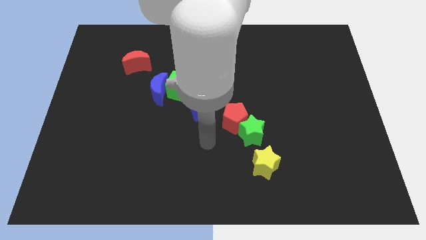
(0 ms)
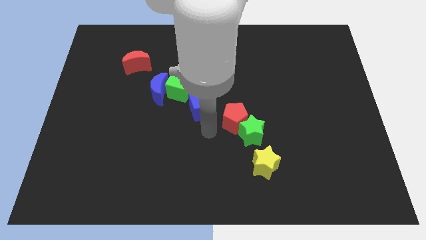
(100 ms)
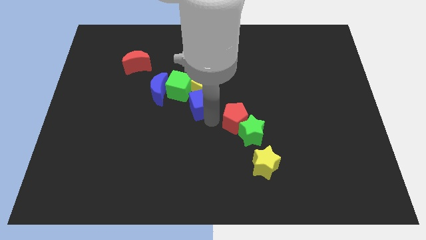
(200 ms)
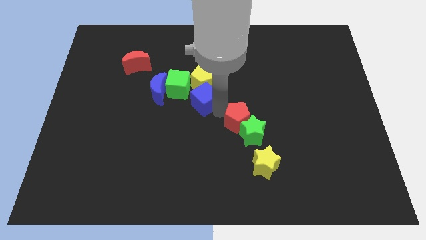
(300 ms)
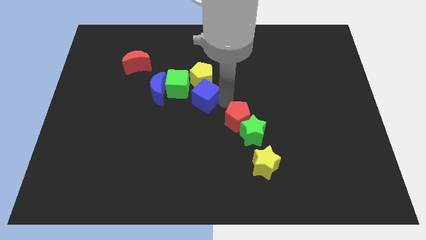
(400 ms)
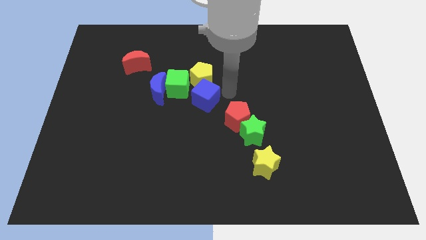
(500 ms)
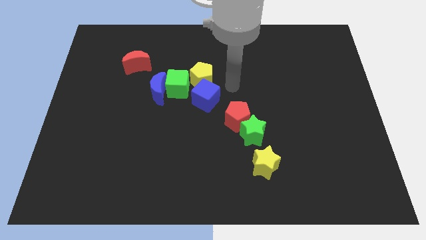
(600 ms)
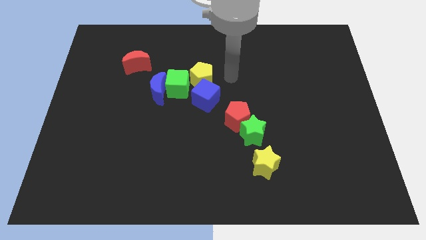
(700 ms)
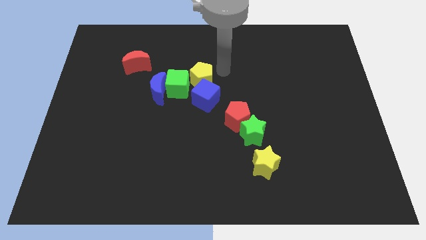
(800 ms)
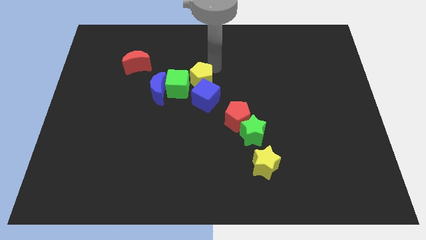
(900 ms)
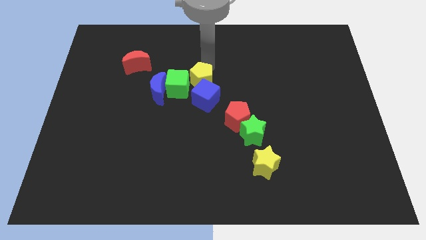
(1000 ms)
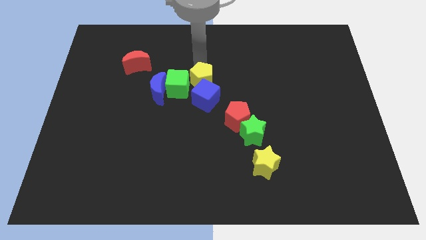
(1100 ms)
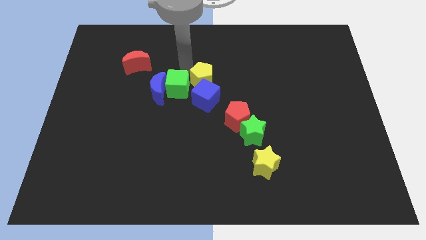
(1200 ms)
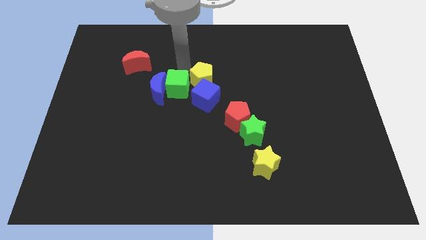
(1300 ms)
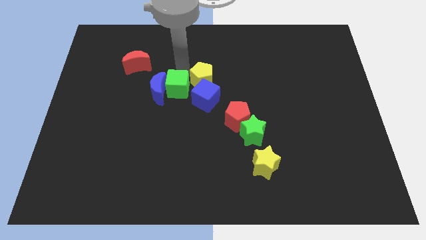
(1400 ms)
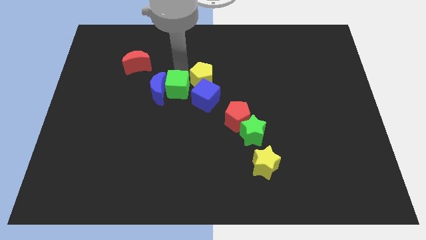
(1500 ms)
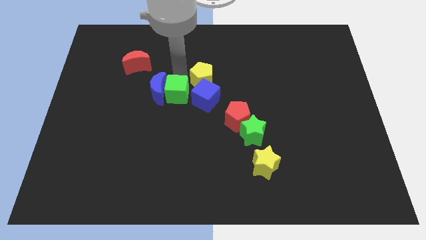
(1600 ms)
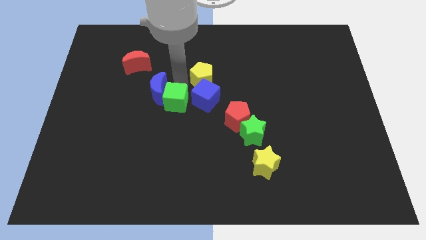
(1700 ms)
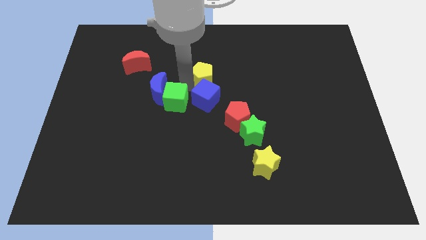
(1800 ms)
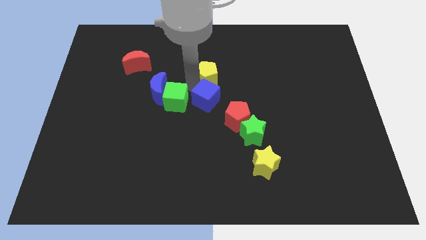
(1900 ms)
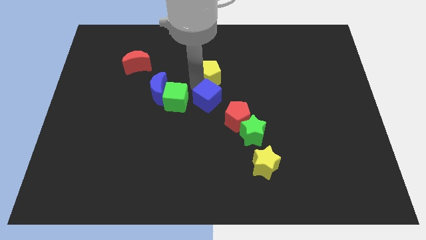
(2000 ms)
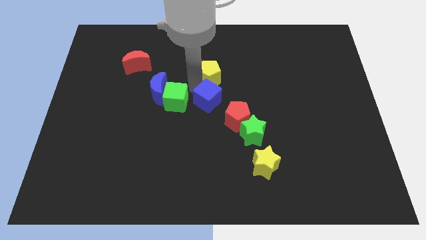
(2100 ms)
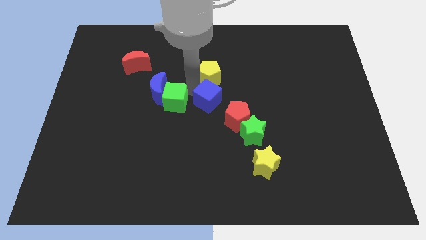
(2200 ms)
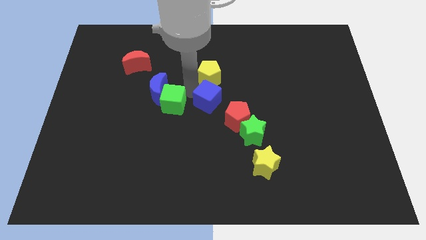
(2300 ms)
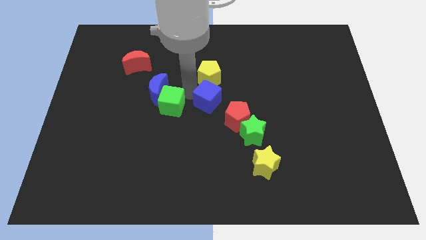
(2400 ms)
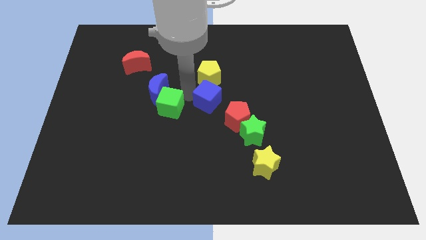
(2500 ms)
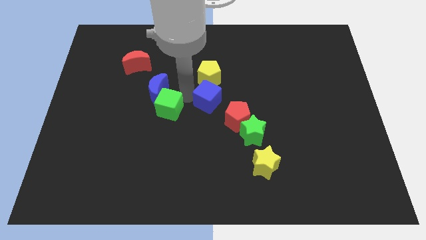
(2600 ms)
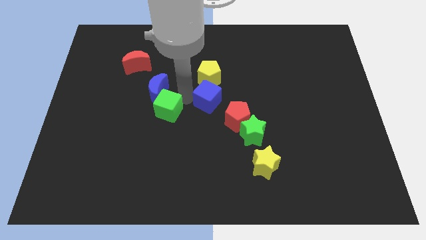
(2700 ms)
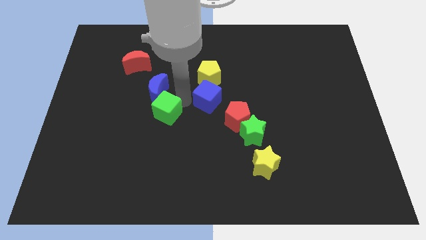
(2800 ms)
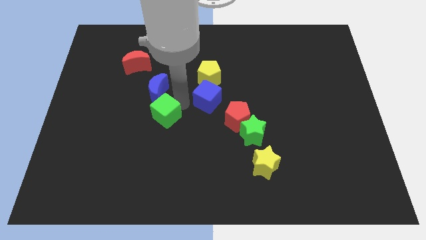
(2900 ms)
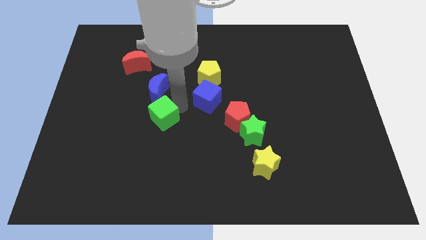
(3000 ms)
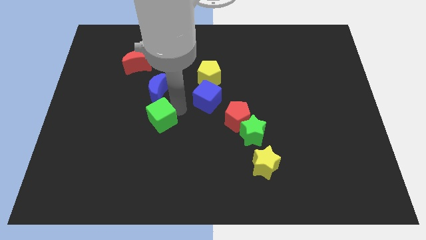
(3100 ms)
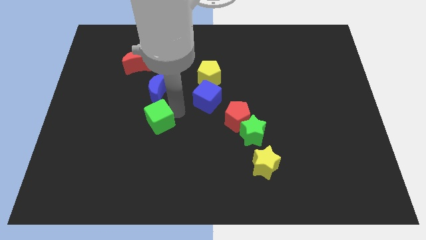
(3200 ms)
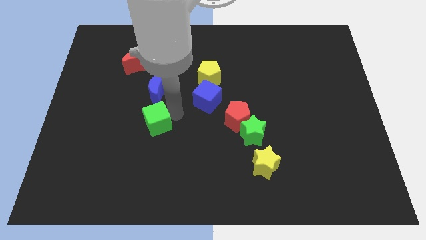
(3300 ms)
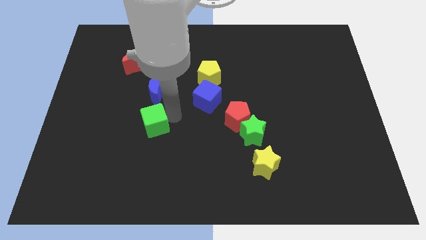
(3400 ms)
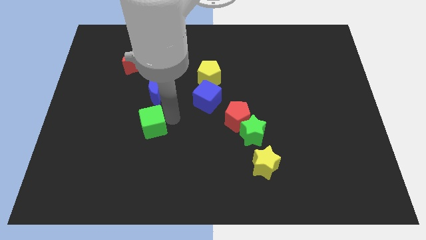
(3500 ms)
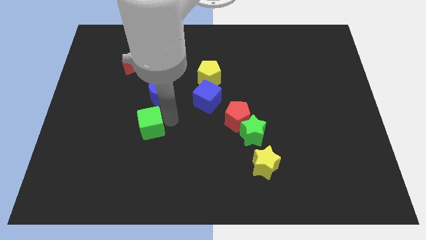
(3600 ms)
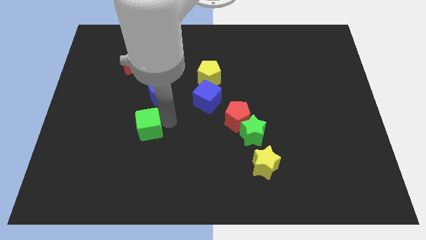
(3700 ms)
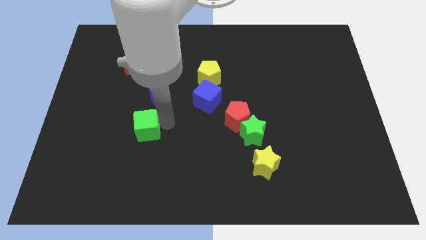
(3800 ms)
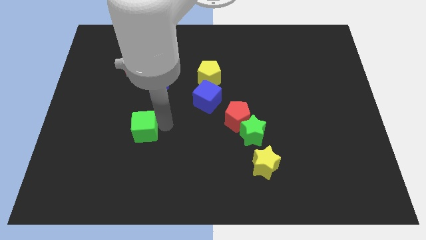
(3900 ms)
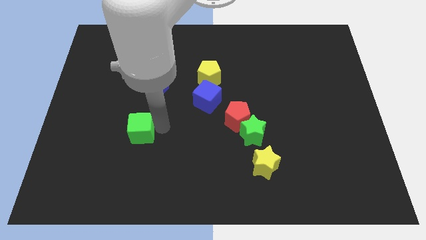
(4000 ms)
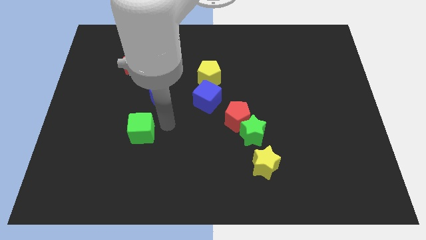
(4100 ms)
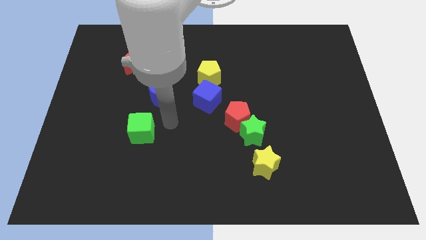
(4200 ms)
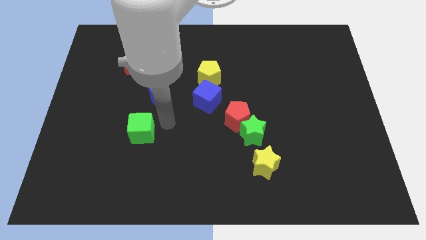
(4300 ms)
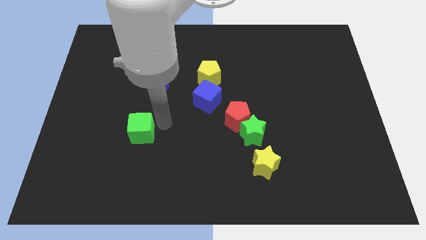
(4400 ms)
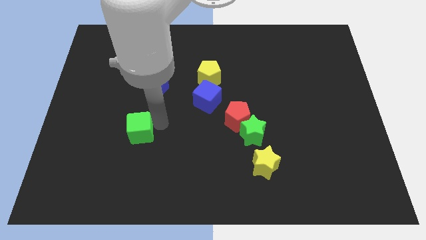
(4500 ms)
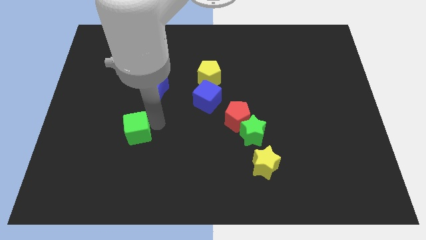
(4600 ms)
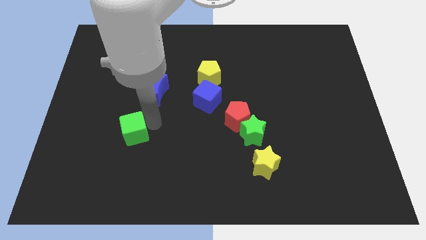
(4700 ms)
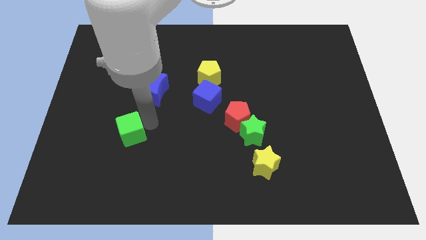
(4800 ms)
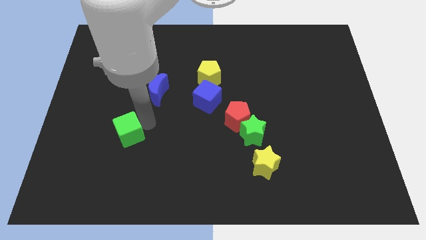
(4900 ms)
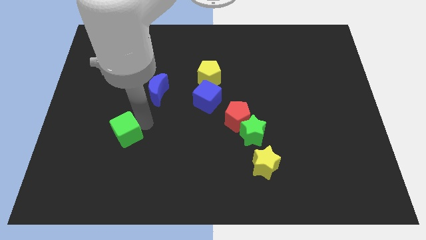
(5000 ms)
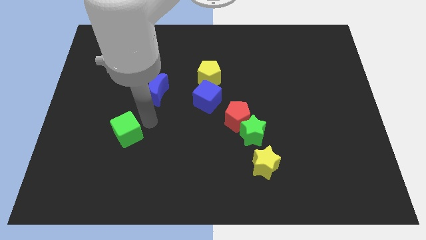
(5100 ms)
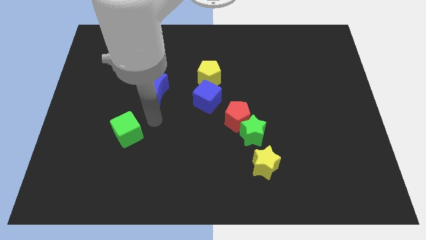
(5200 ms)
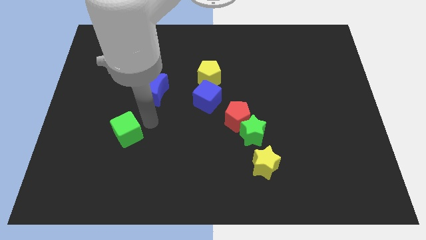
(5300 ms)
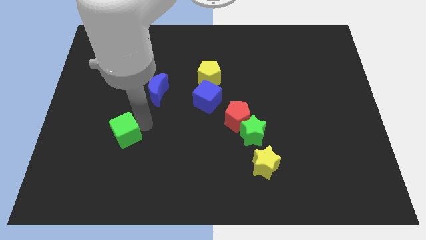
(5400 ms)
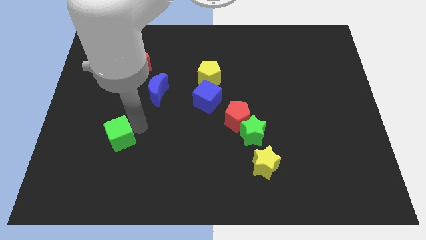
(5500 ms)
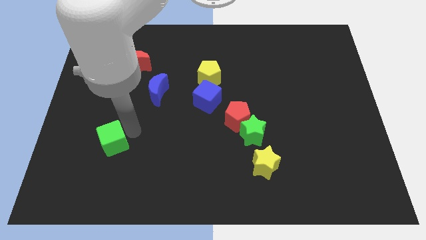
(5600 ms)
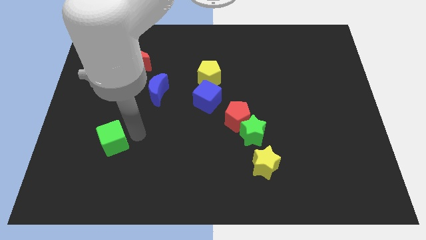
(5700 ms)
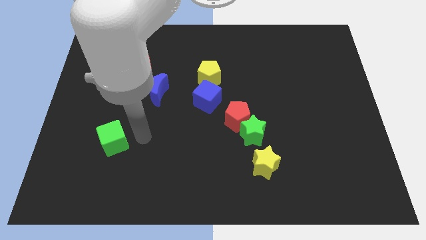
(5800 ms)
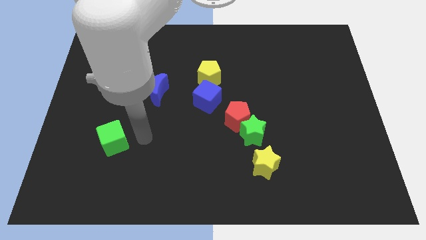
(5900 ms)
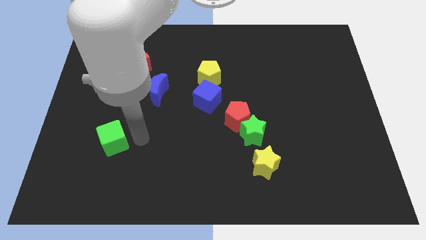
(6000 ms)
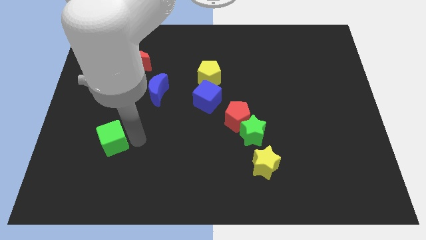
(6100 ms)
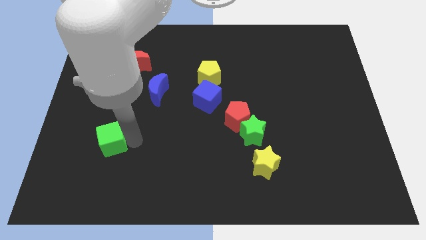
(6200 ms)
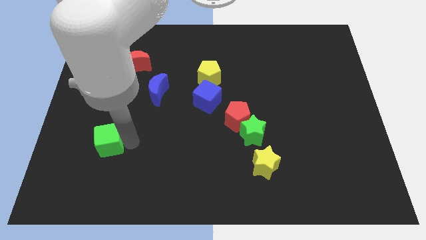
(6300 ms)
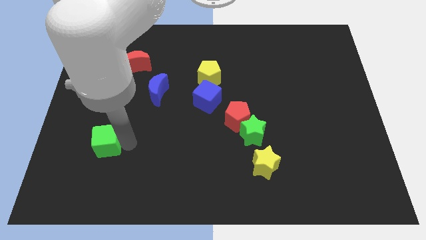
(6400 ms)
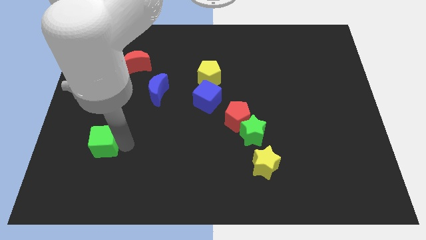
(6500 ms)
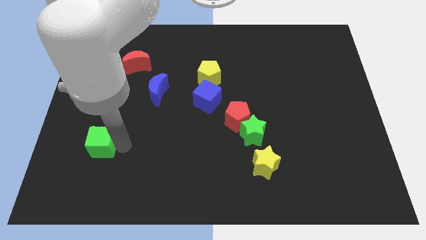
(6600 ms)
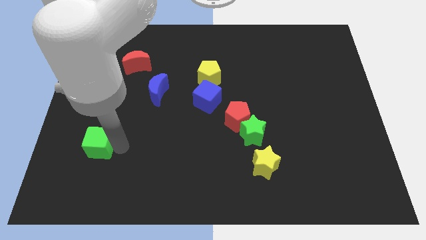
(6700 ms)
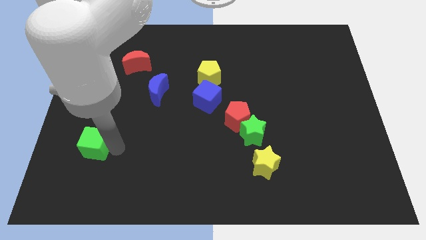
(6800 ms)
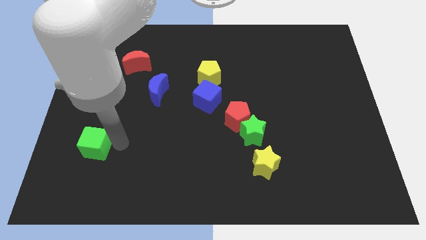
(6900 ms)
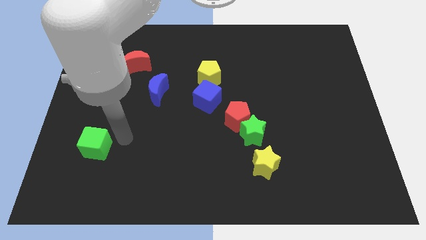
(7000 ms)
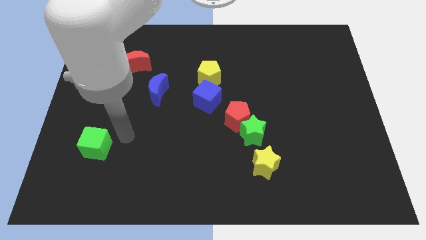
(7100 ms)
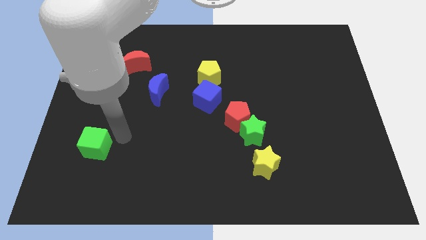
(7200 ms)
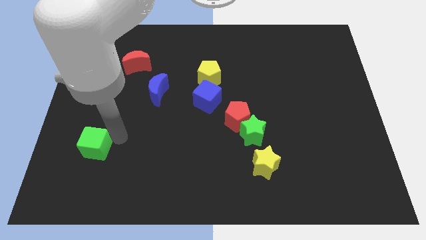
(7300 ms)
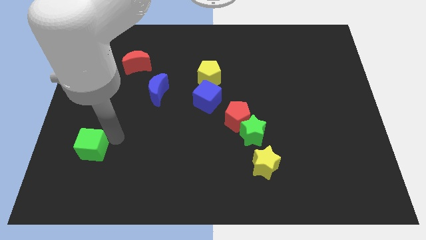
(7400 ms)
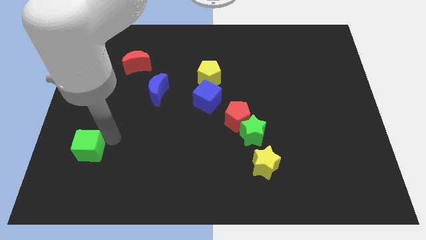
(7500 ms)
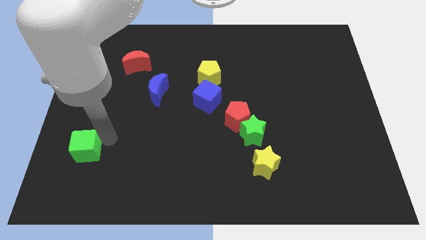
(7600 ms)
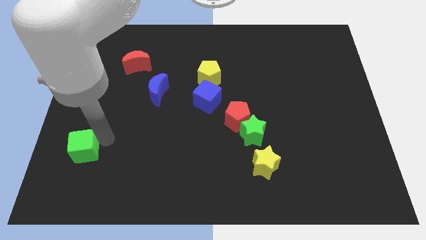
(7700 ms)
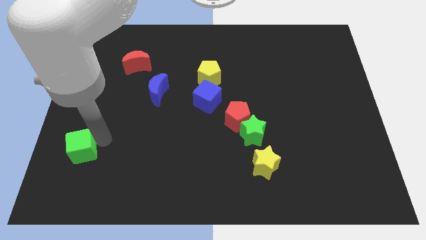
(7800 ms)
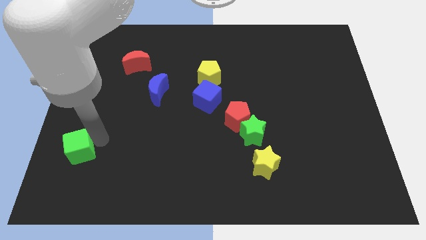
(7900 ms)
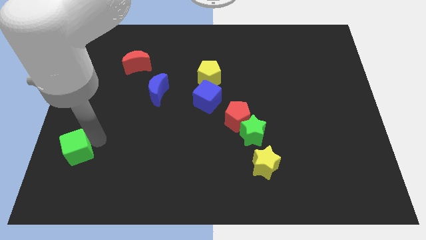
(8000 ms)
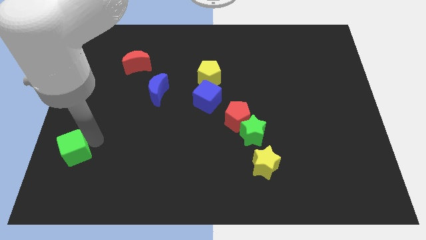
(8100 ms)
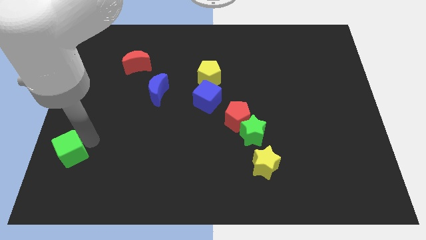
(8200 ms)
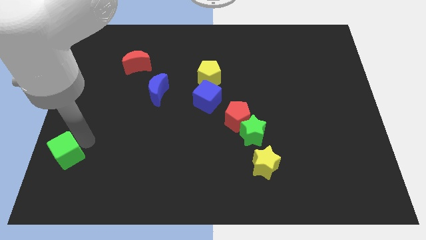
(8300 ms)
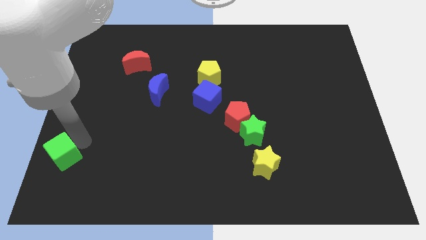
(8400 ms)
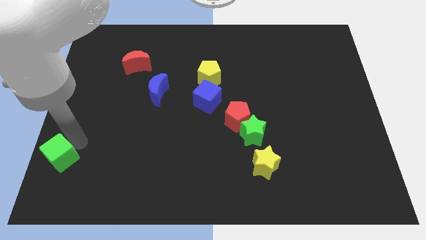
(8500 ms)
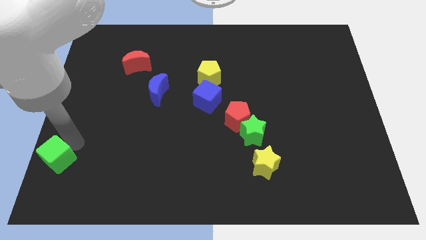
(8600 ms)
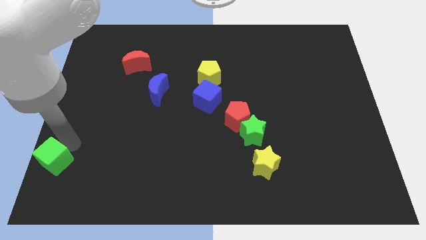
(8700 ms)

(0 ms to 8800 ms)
move the green cube to the lower left corner
